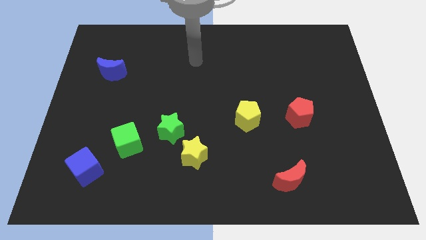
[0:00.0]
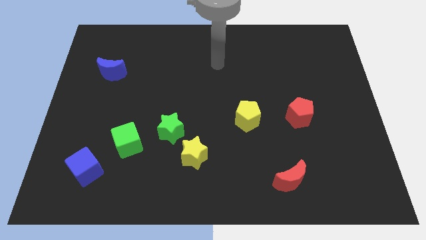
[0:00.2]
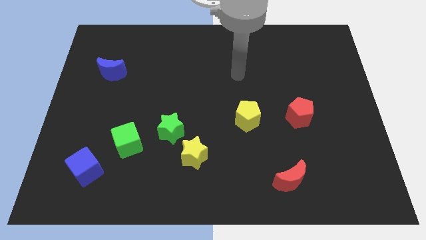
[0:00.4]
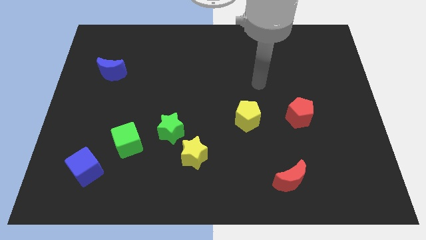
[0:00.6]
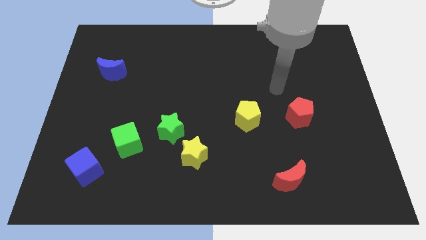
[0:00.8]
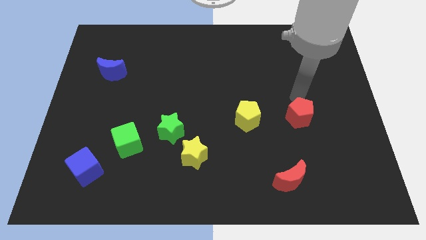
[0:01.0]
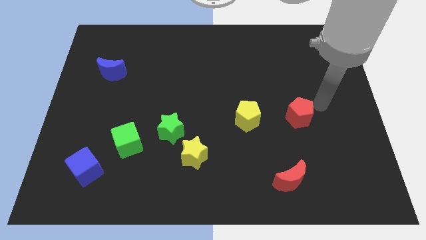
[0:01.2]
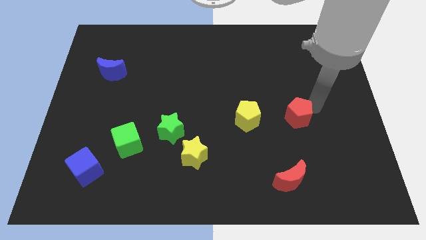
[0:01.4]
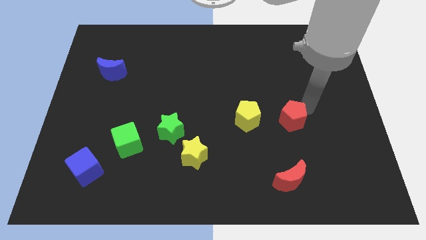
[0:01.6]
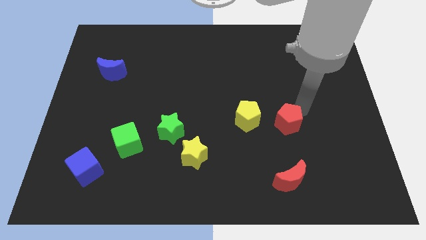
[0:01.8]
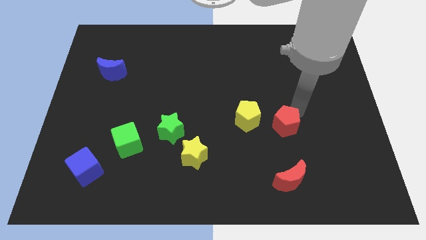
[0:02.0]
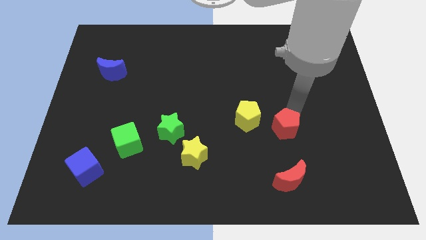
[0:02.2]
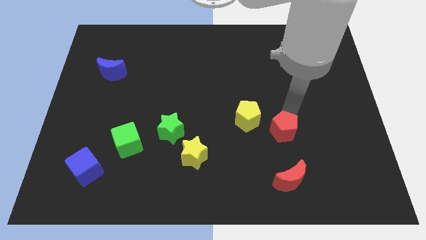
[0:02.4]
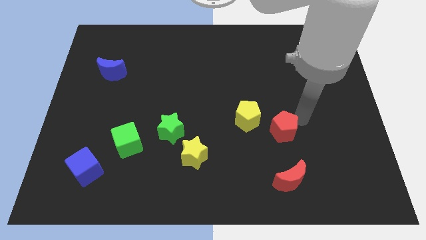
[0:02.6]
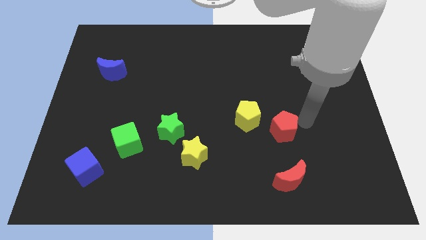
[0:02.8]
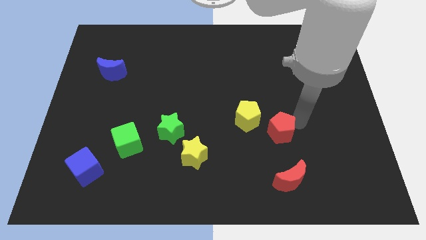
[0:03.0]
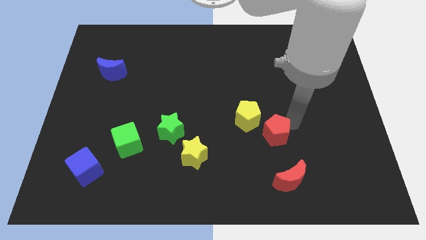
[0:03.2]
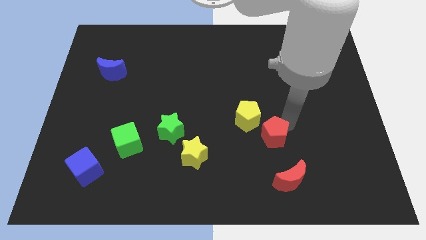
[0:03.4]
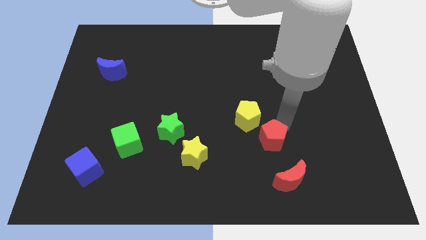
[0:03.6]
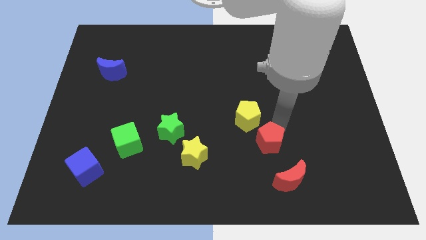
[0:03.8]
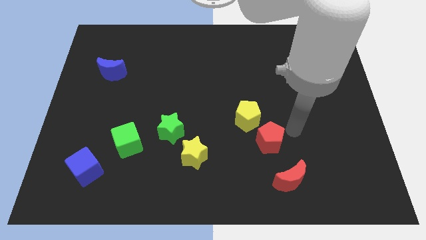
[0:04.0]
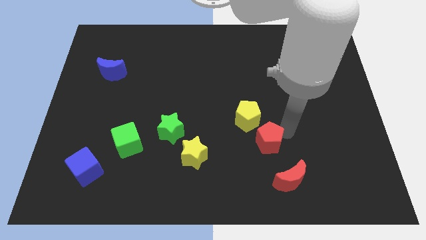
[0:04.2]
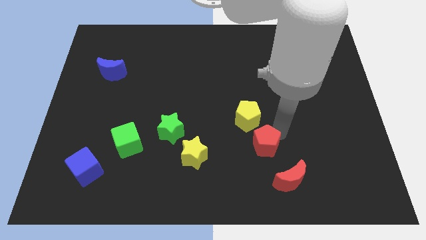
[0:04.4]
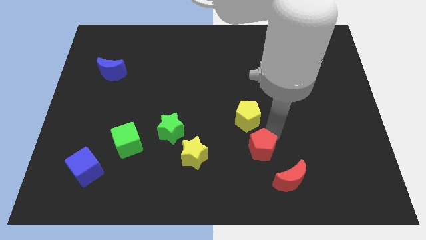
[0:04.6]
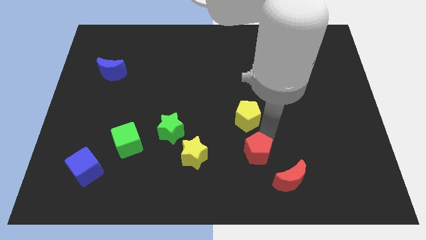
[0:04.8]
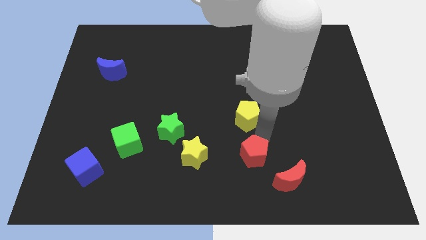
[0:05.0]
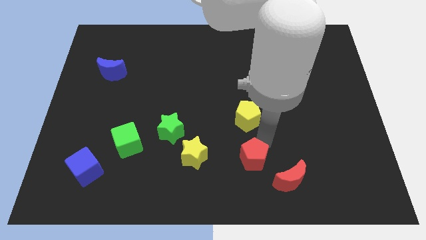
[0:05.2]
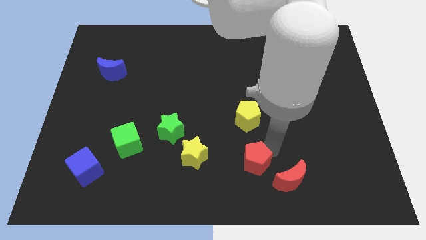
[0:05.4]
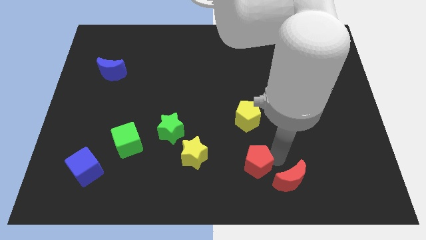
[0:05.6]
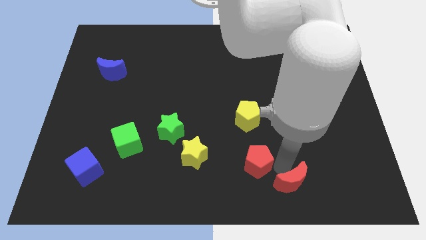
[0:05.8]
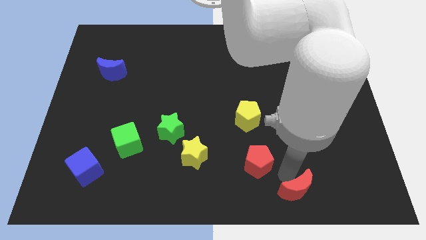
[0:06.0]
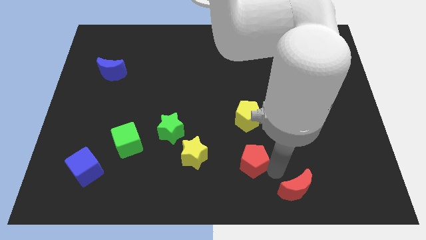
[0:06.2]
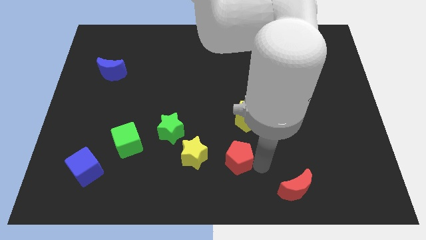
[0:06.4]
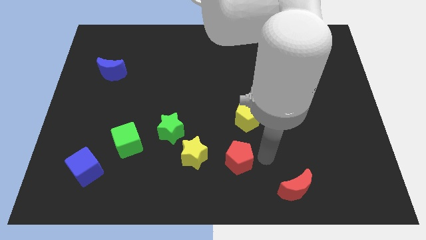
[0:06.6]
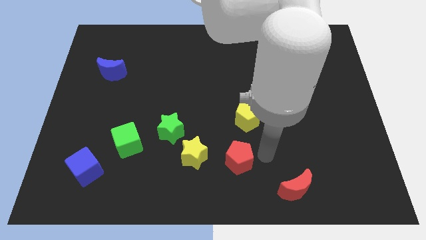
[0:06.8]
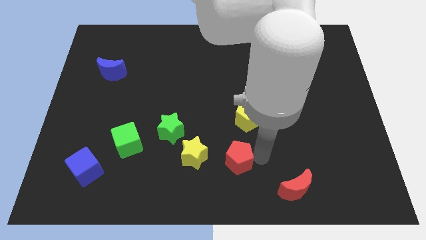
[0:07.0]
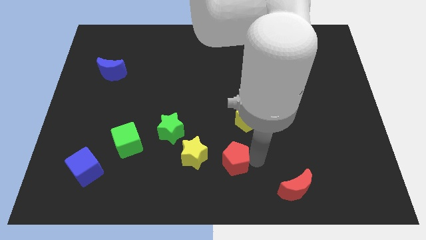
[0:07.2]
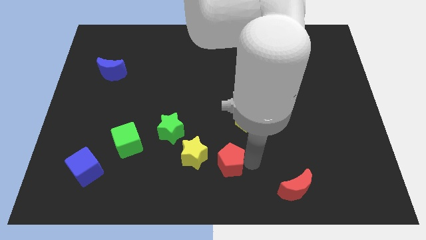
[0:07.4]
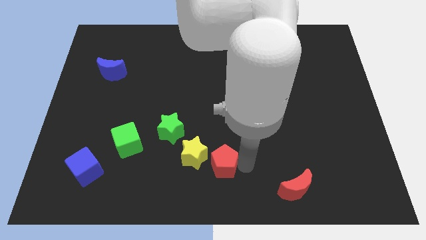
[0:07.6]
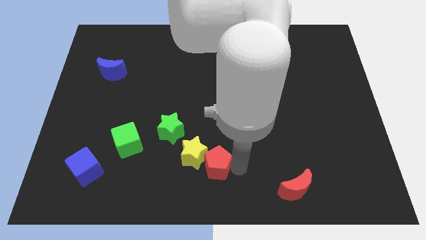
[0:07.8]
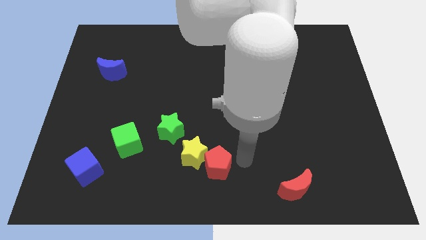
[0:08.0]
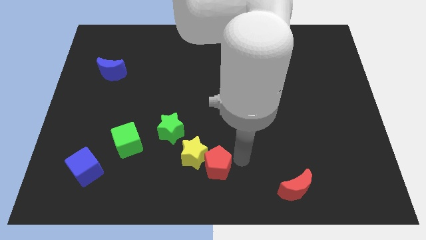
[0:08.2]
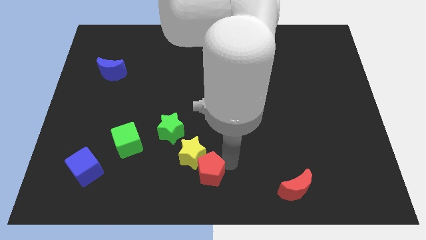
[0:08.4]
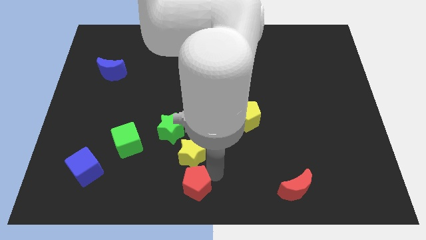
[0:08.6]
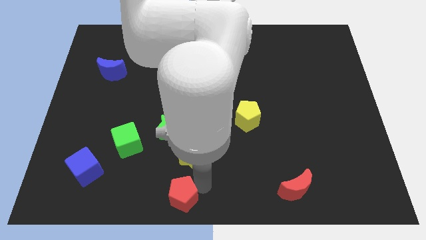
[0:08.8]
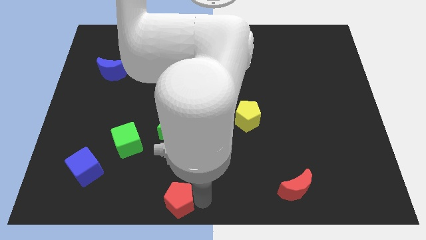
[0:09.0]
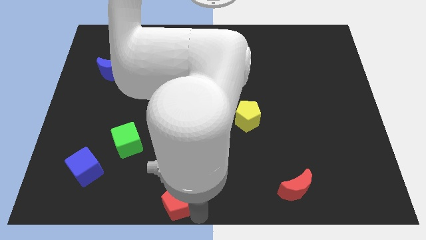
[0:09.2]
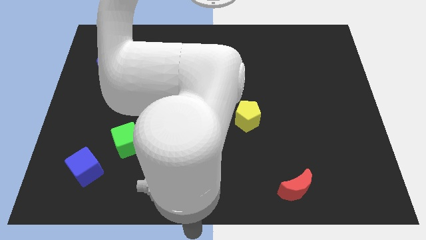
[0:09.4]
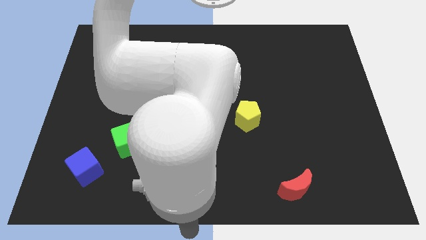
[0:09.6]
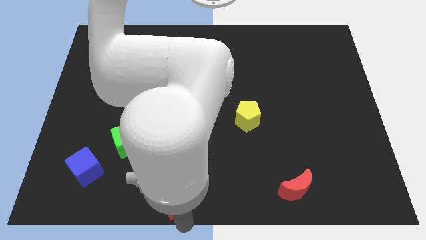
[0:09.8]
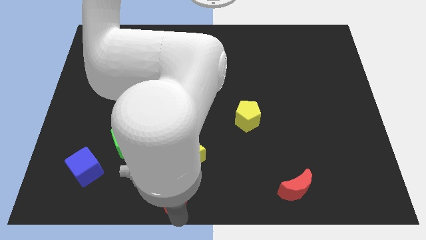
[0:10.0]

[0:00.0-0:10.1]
push the red pentagon to the bottom left side of the yellow star

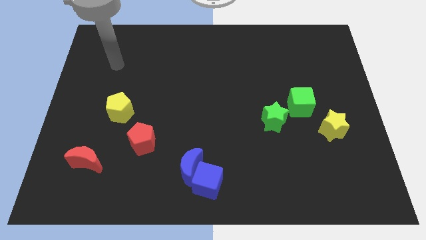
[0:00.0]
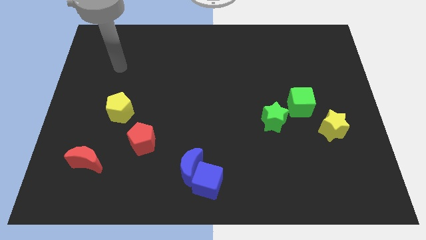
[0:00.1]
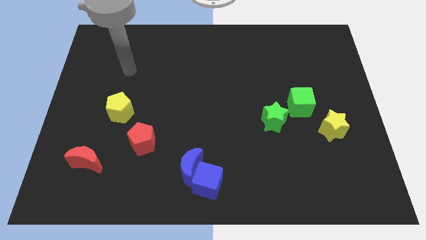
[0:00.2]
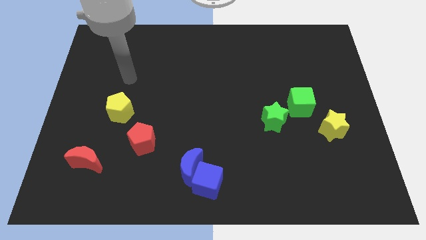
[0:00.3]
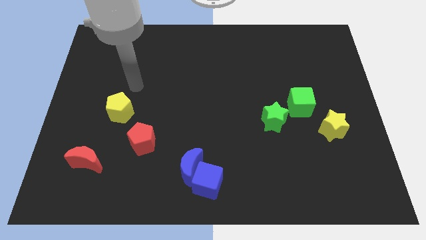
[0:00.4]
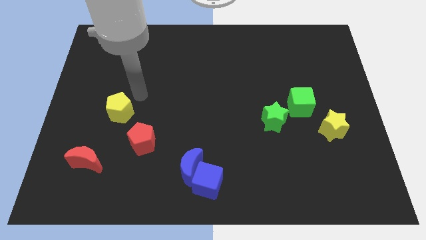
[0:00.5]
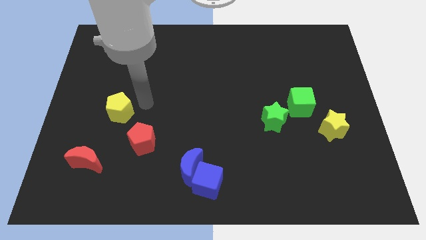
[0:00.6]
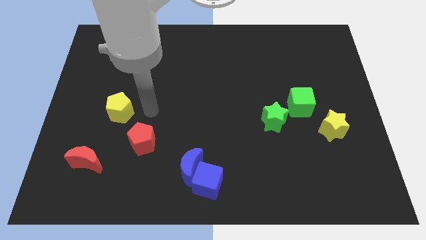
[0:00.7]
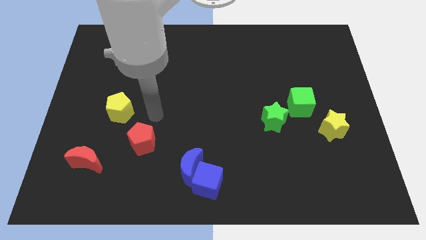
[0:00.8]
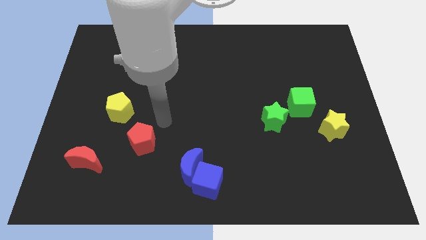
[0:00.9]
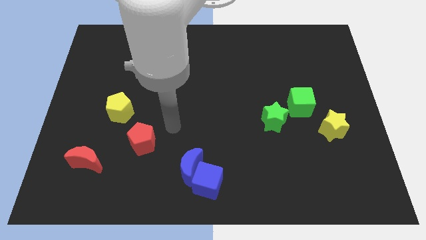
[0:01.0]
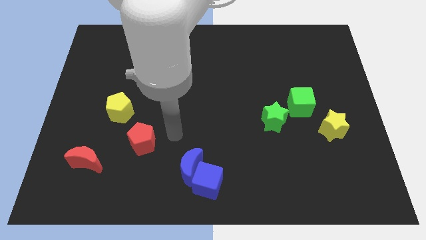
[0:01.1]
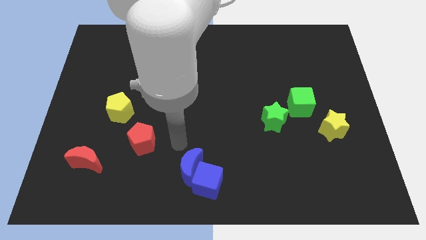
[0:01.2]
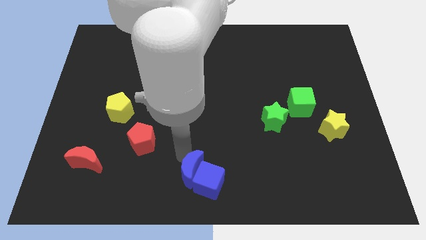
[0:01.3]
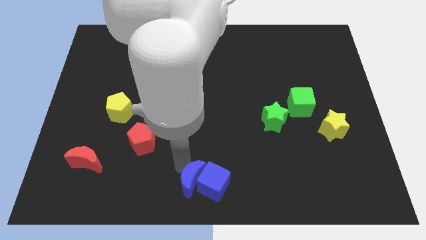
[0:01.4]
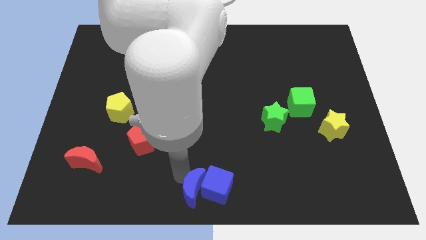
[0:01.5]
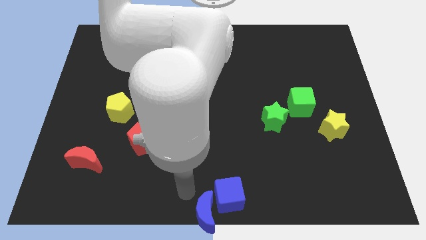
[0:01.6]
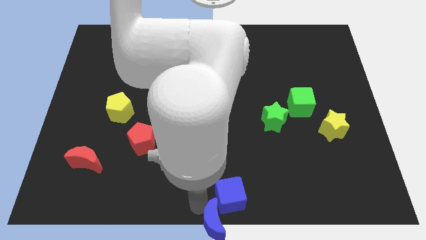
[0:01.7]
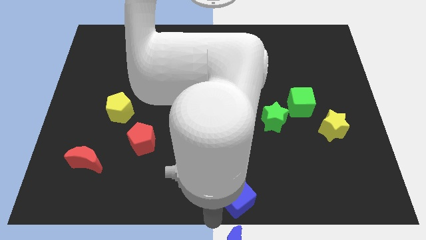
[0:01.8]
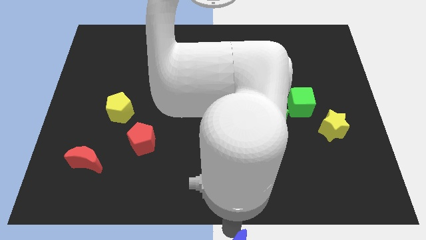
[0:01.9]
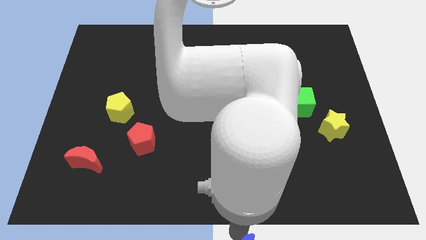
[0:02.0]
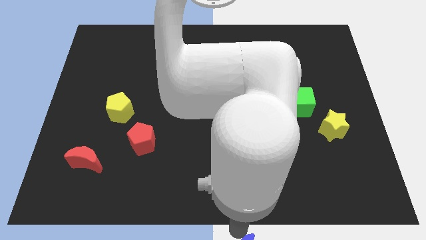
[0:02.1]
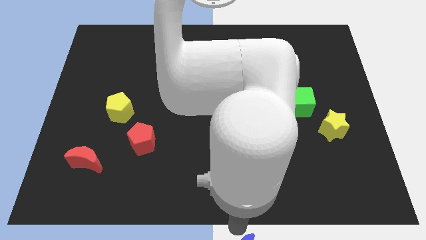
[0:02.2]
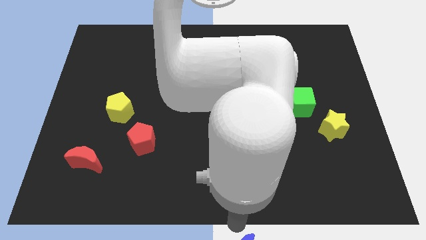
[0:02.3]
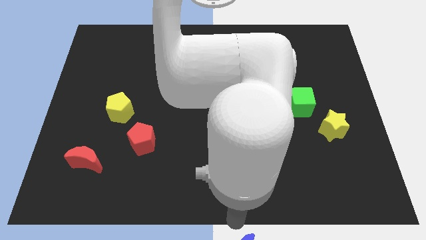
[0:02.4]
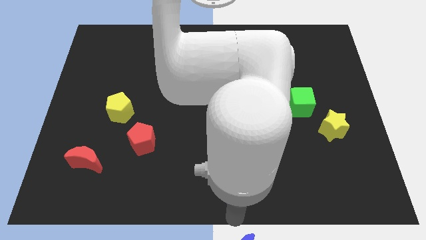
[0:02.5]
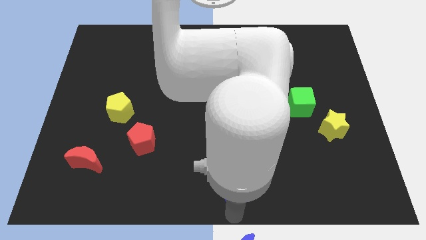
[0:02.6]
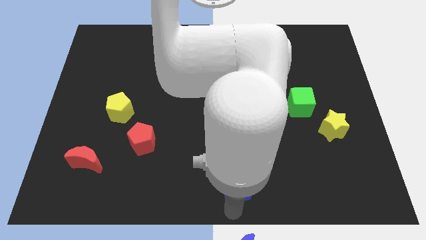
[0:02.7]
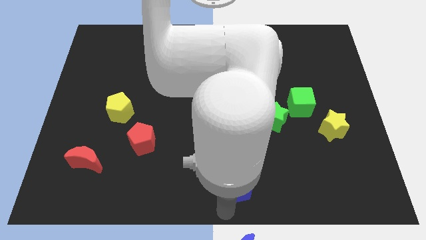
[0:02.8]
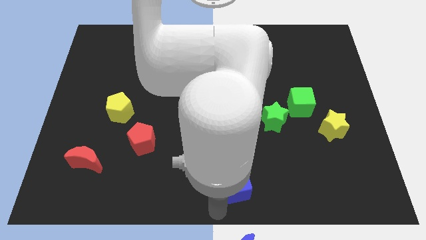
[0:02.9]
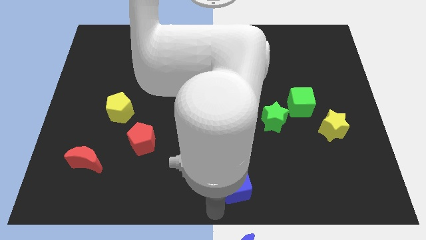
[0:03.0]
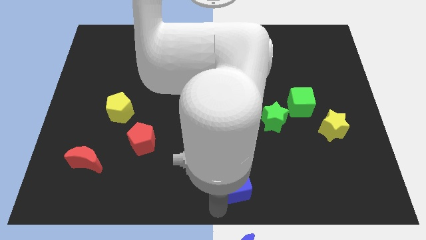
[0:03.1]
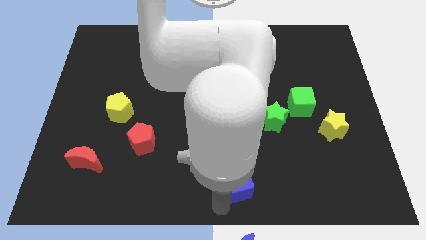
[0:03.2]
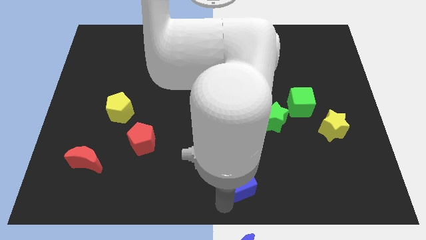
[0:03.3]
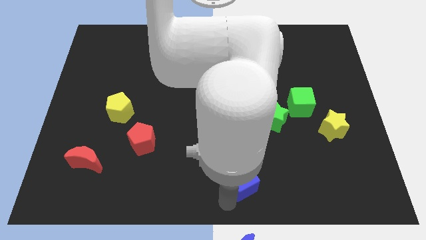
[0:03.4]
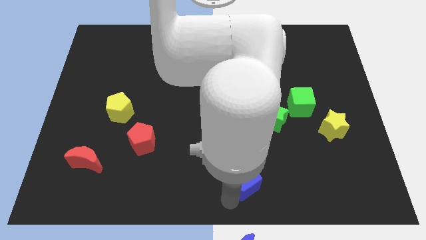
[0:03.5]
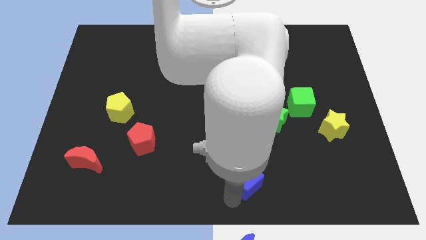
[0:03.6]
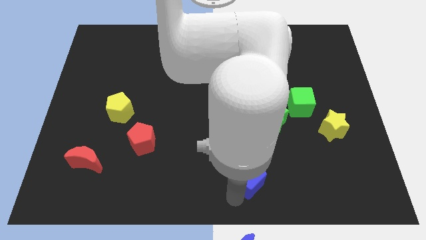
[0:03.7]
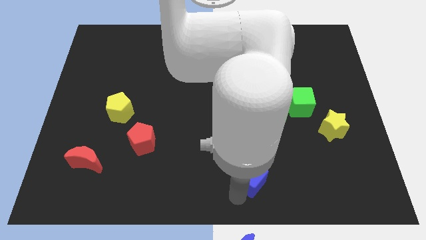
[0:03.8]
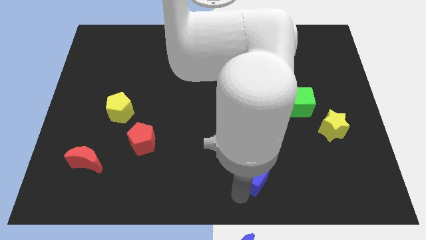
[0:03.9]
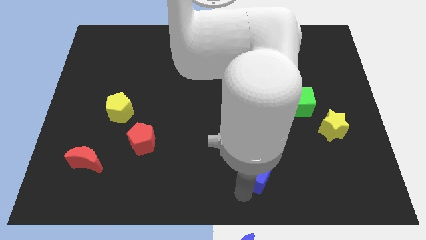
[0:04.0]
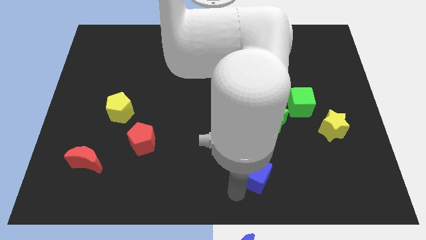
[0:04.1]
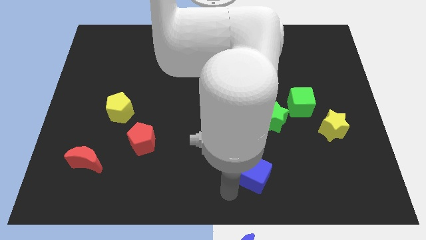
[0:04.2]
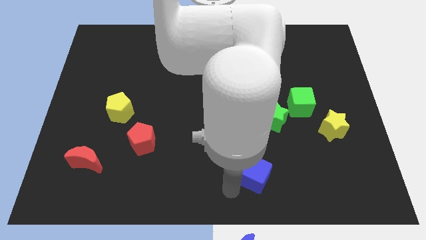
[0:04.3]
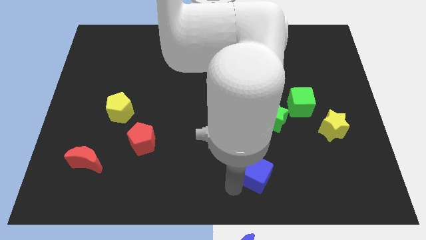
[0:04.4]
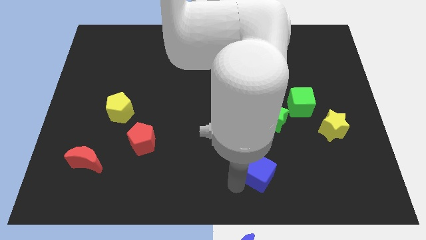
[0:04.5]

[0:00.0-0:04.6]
put the blue cube to the bottom side of the green star
